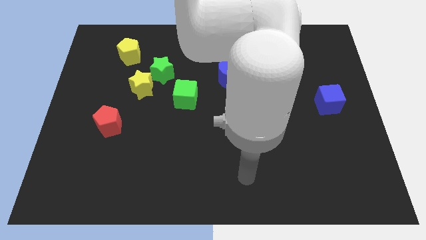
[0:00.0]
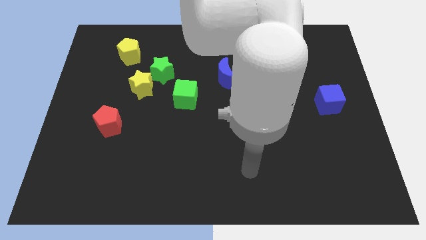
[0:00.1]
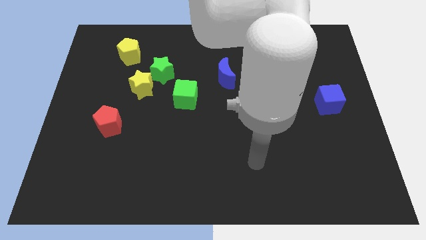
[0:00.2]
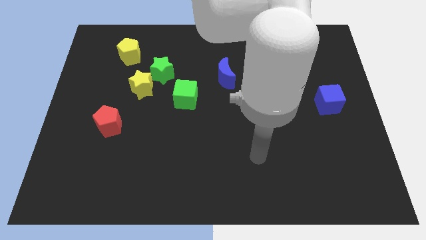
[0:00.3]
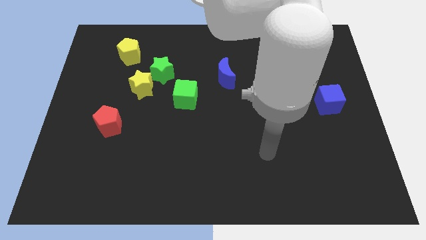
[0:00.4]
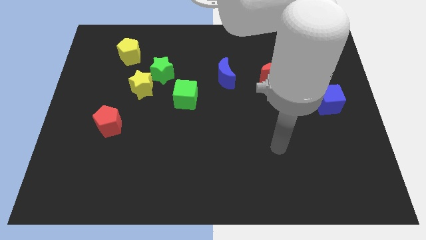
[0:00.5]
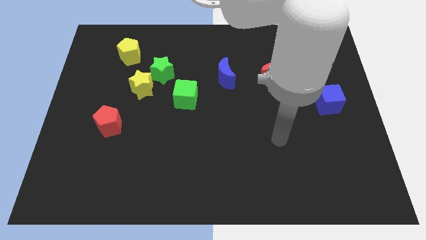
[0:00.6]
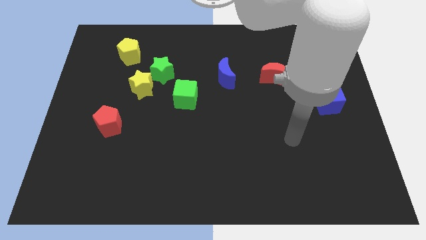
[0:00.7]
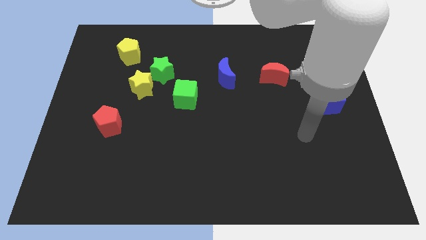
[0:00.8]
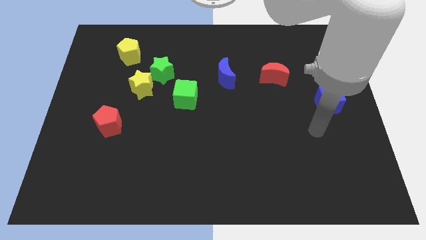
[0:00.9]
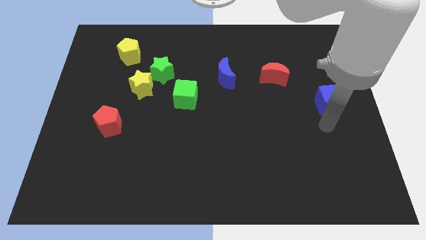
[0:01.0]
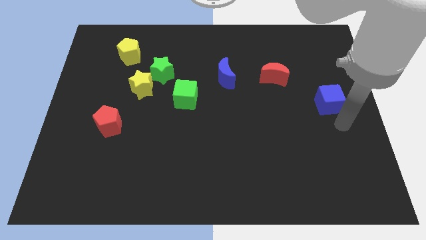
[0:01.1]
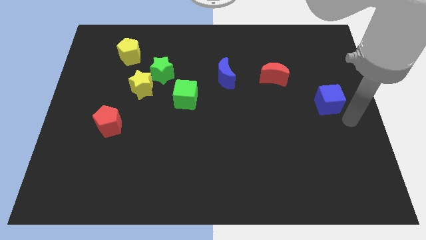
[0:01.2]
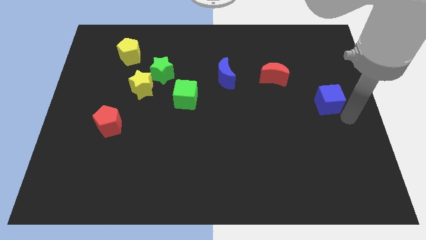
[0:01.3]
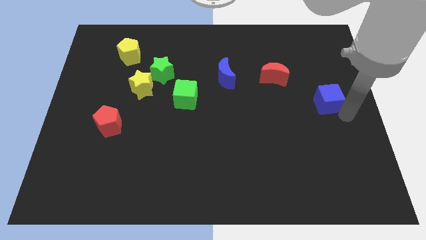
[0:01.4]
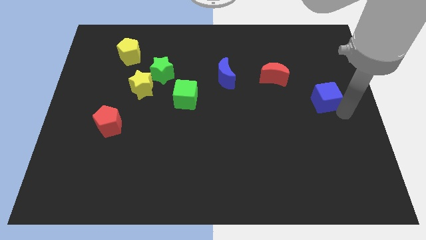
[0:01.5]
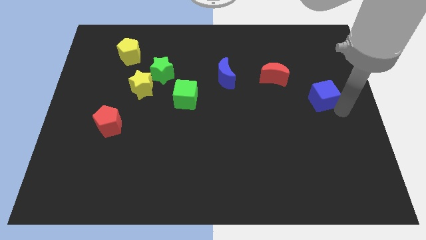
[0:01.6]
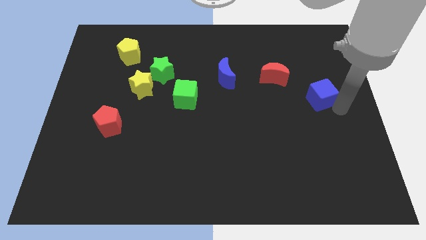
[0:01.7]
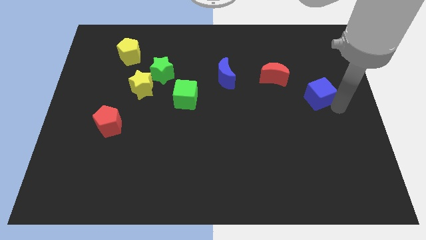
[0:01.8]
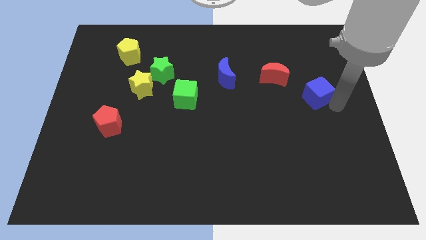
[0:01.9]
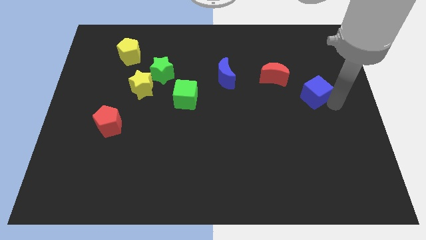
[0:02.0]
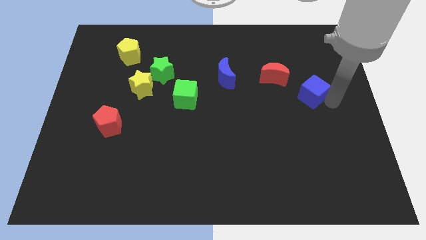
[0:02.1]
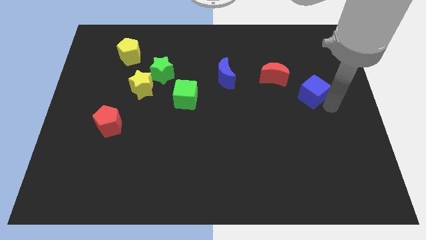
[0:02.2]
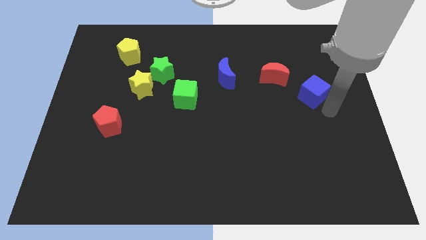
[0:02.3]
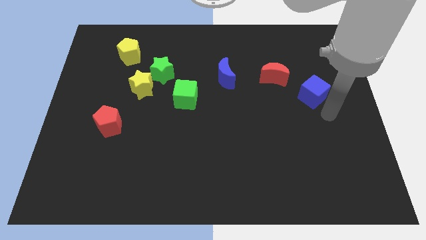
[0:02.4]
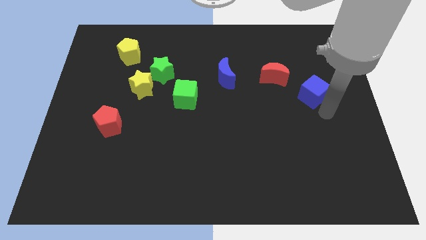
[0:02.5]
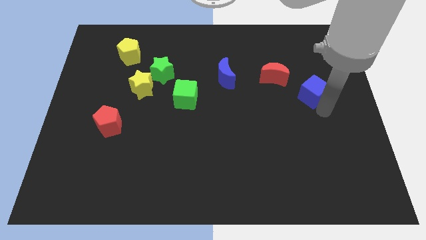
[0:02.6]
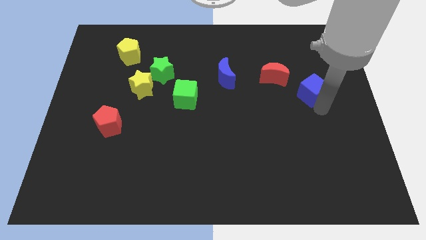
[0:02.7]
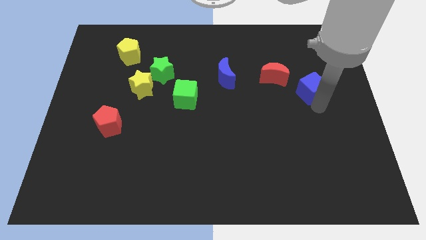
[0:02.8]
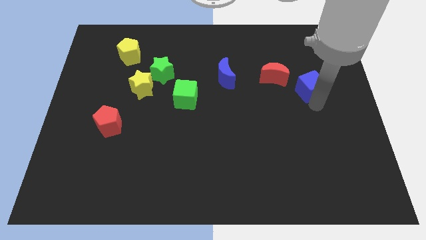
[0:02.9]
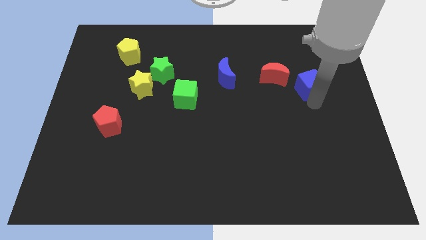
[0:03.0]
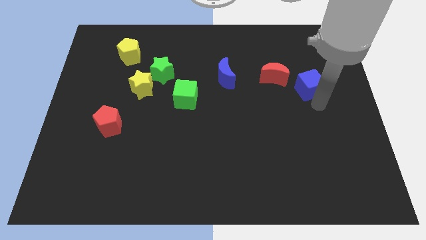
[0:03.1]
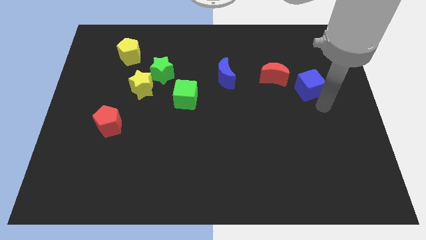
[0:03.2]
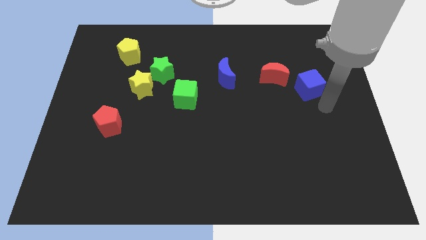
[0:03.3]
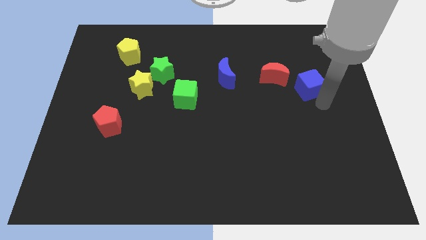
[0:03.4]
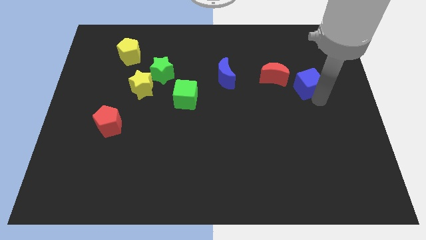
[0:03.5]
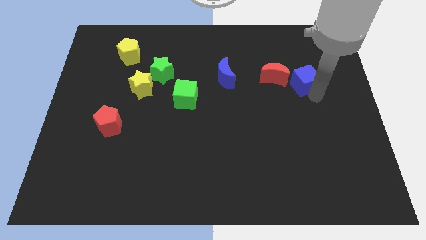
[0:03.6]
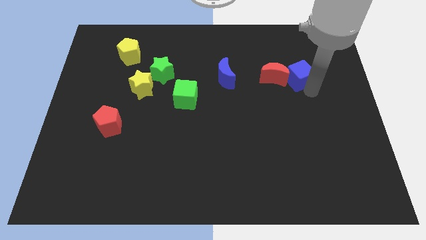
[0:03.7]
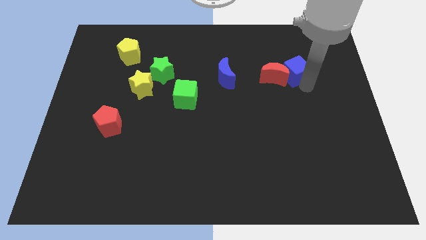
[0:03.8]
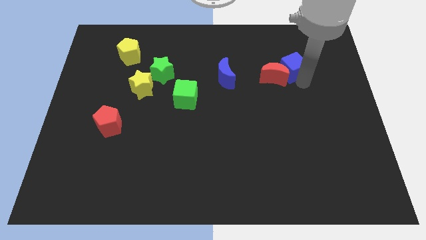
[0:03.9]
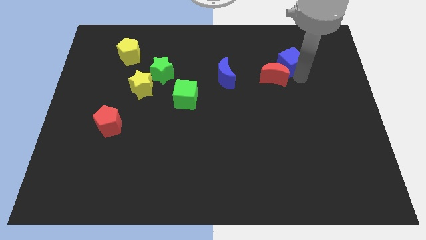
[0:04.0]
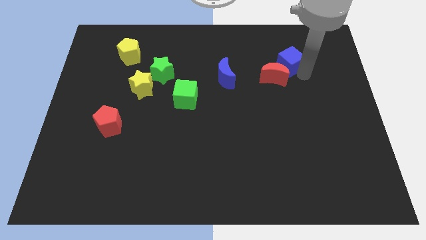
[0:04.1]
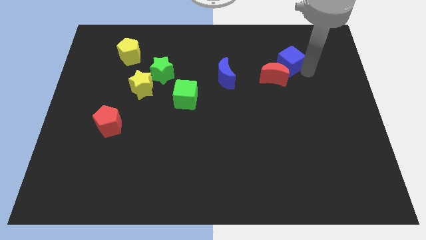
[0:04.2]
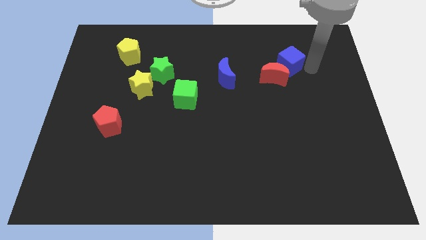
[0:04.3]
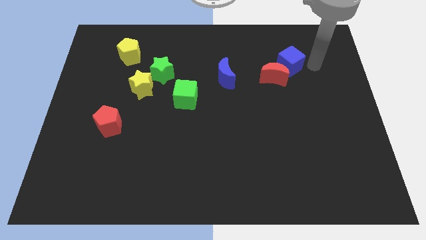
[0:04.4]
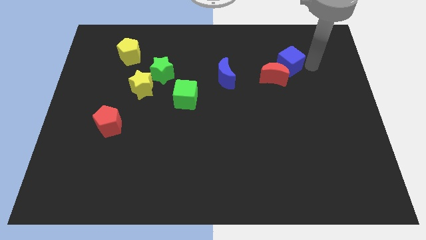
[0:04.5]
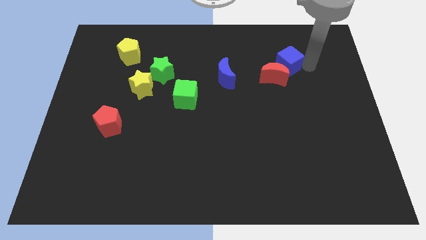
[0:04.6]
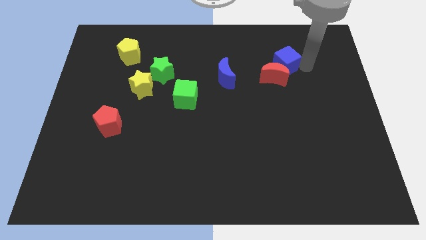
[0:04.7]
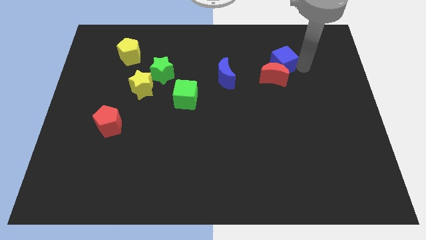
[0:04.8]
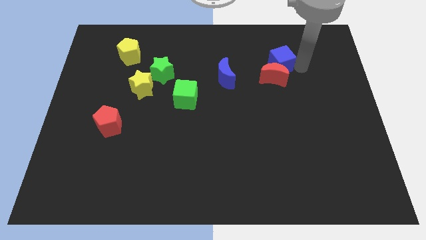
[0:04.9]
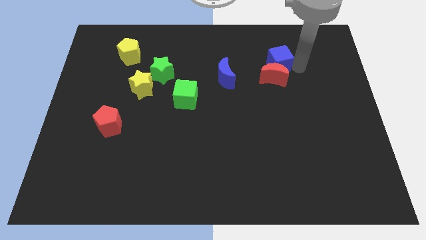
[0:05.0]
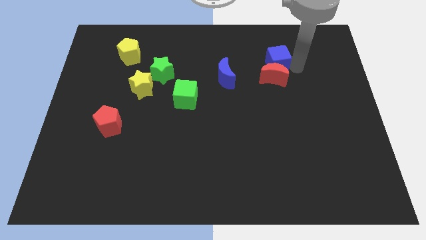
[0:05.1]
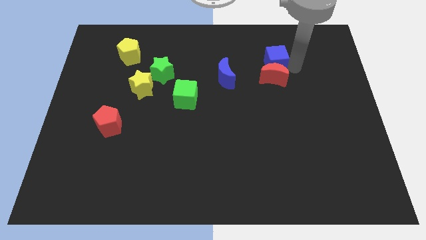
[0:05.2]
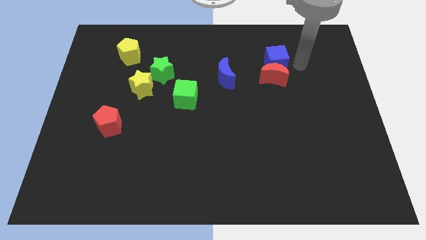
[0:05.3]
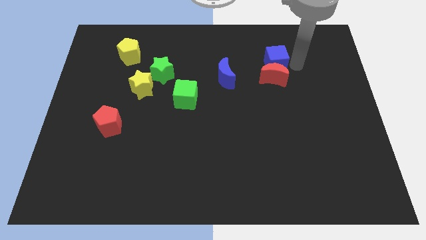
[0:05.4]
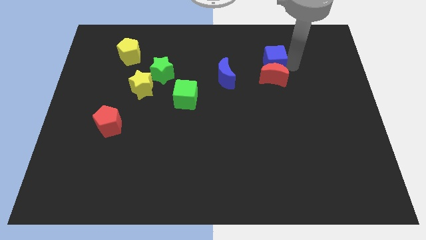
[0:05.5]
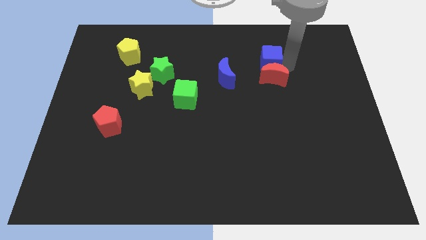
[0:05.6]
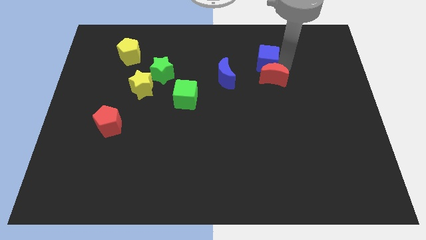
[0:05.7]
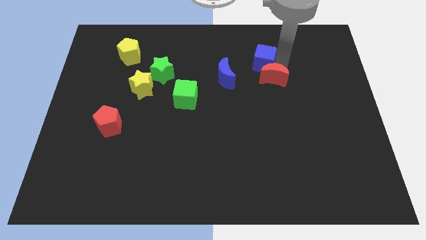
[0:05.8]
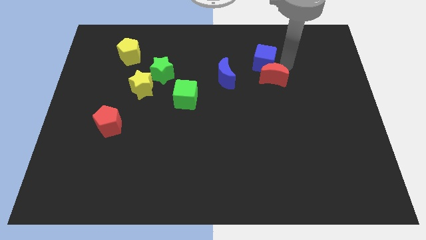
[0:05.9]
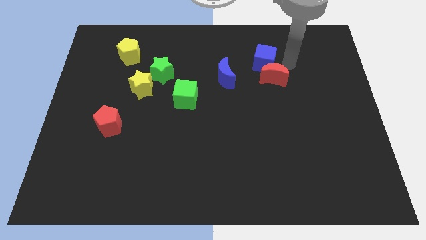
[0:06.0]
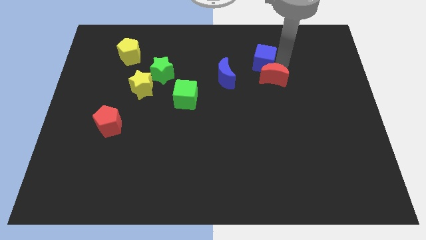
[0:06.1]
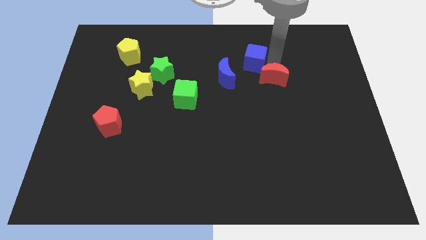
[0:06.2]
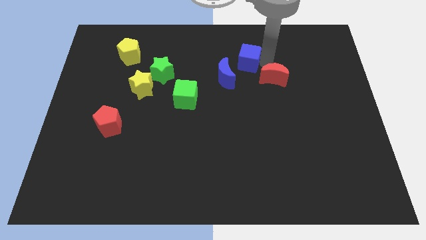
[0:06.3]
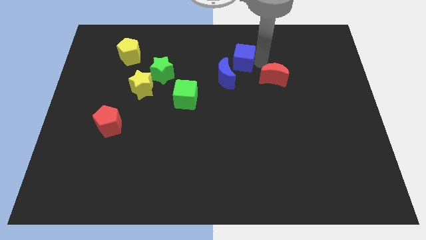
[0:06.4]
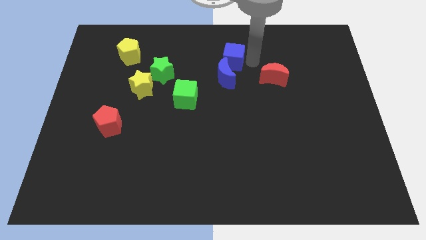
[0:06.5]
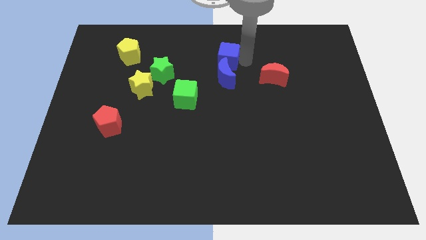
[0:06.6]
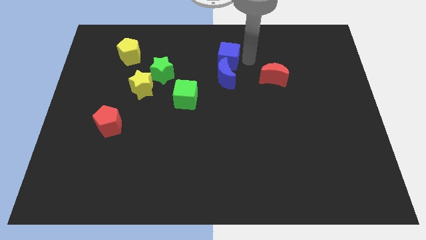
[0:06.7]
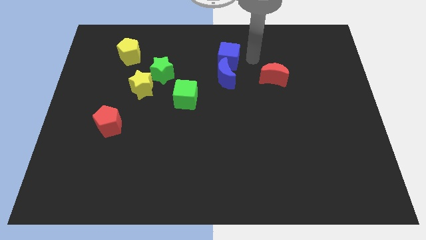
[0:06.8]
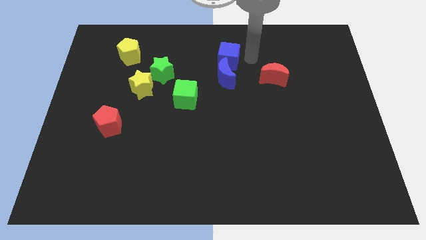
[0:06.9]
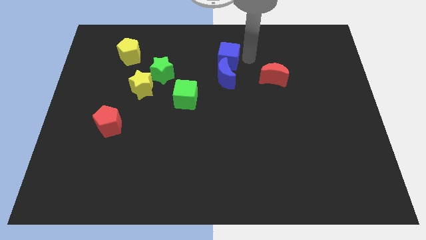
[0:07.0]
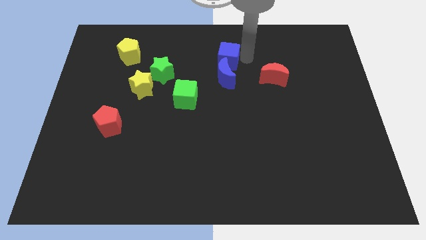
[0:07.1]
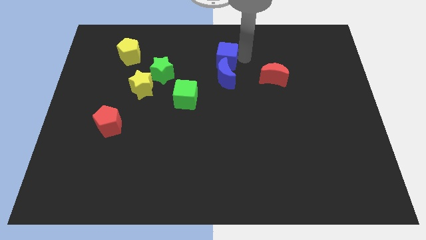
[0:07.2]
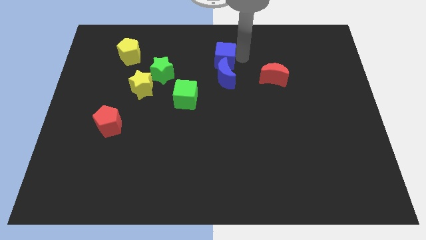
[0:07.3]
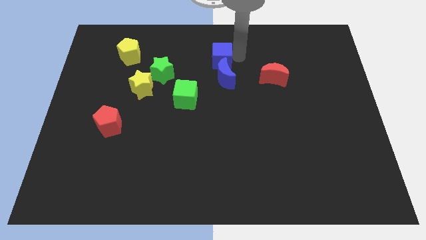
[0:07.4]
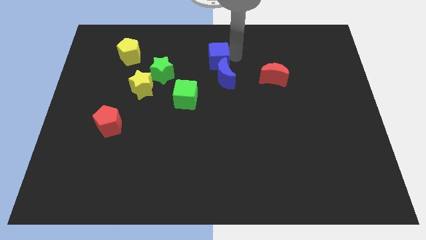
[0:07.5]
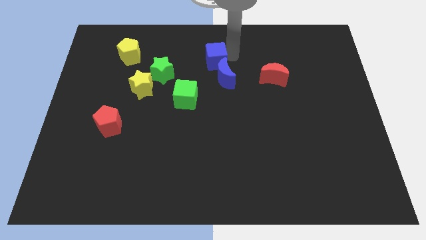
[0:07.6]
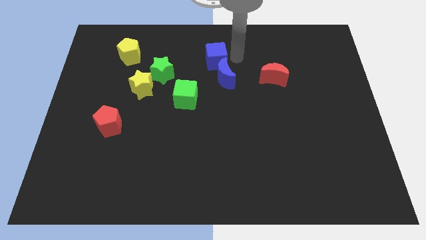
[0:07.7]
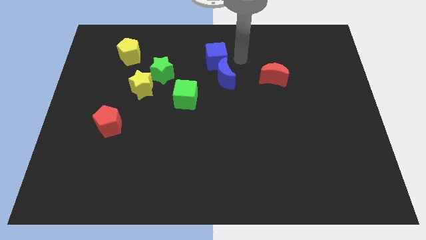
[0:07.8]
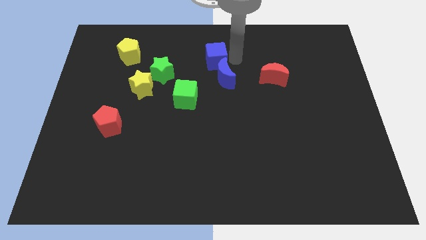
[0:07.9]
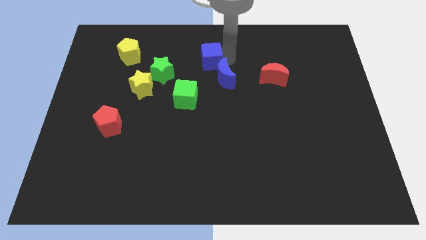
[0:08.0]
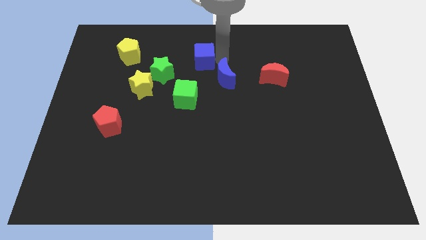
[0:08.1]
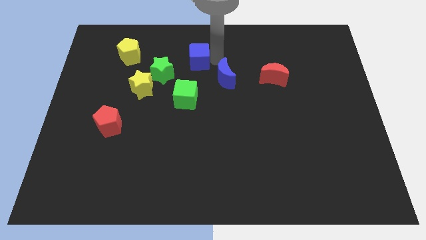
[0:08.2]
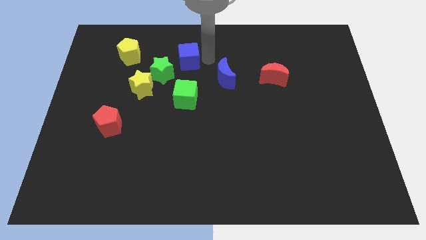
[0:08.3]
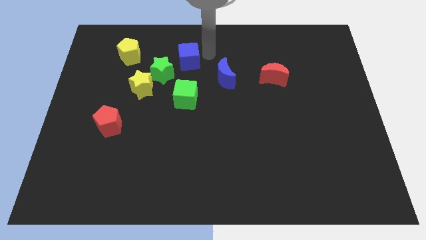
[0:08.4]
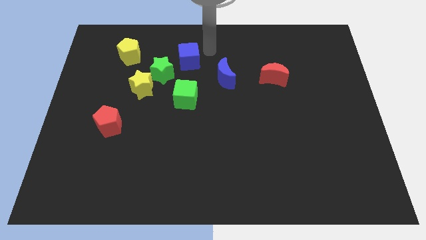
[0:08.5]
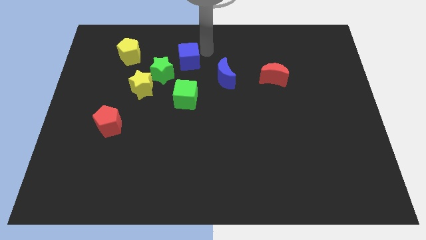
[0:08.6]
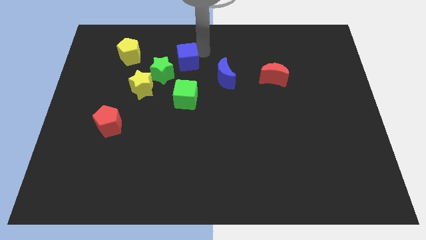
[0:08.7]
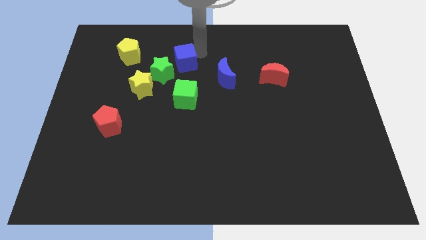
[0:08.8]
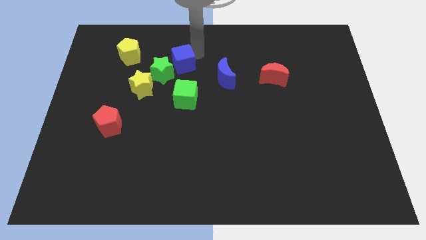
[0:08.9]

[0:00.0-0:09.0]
push the blue cube to the green star
